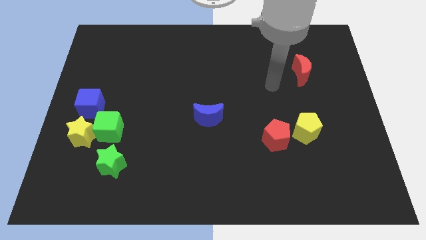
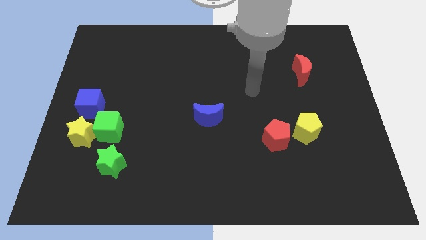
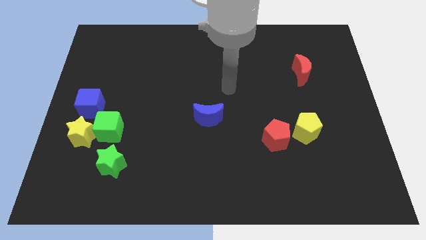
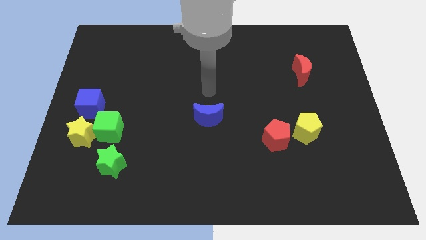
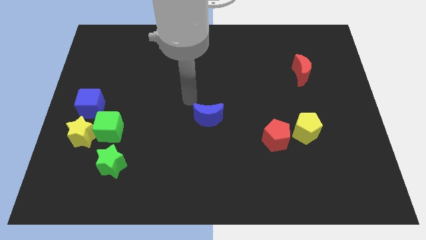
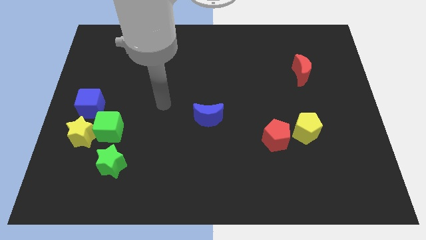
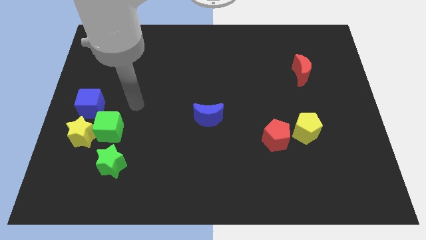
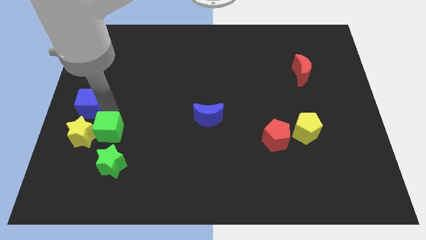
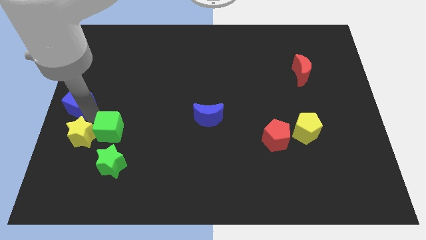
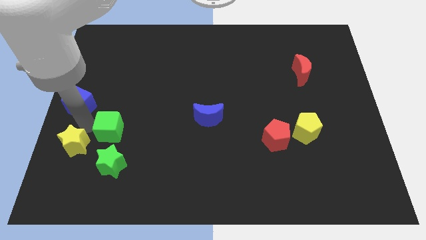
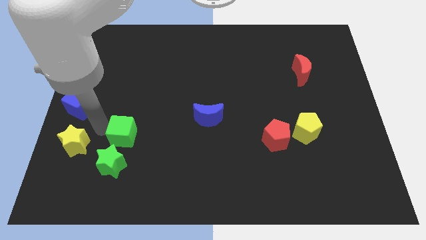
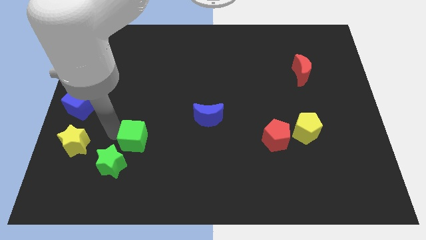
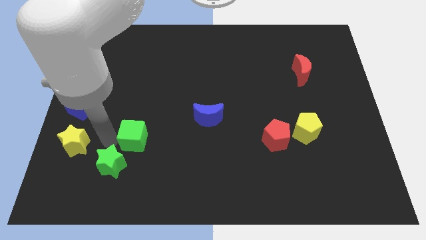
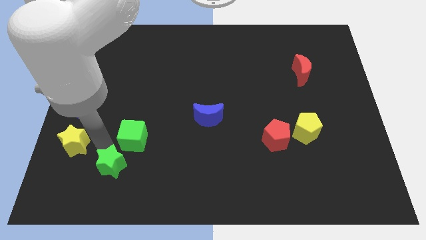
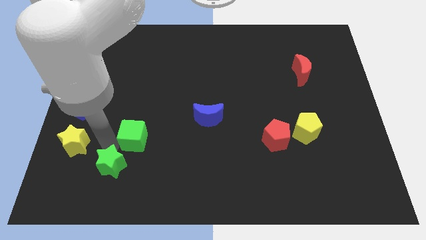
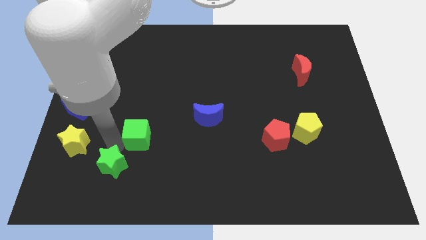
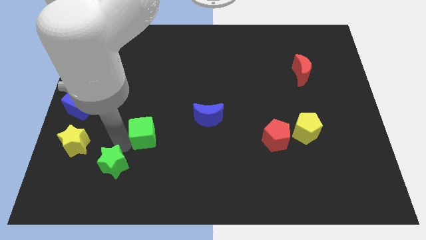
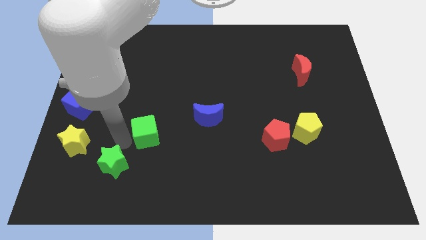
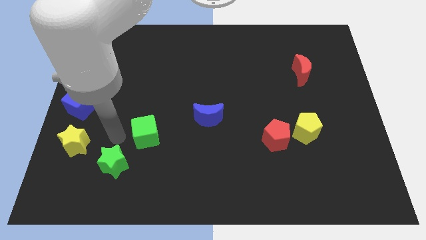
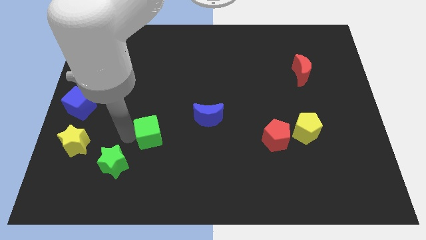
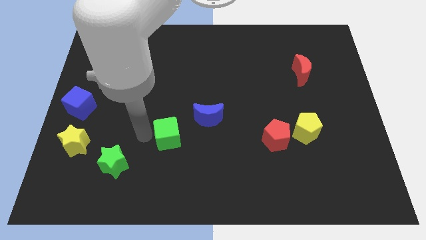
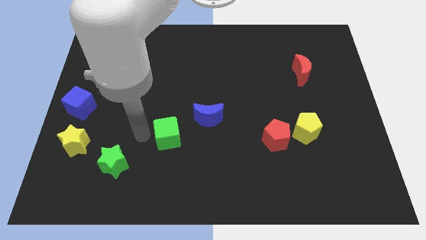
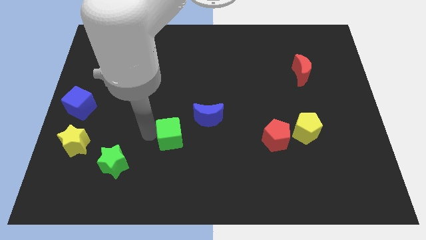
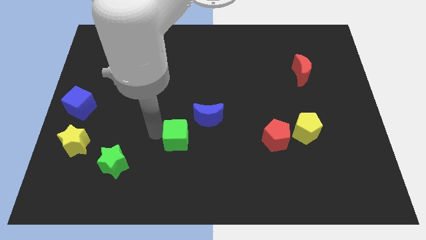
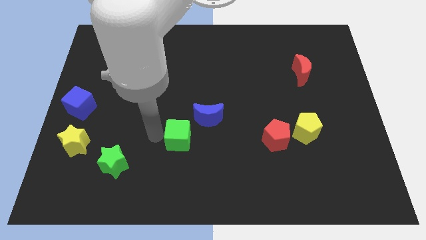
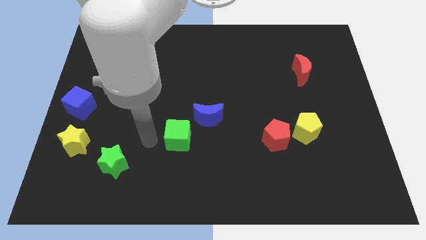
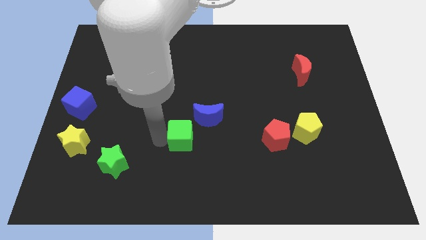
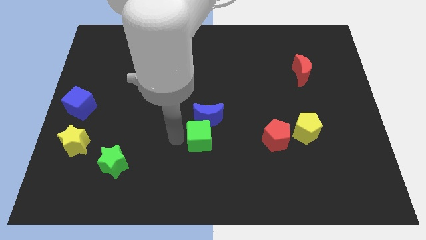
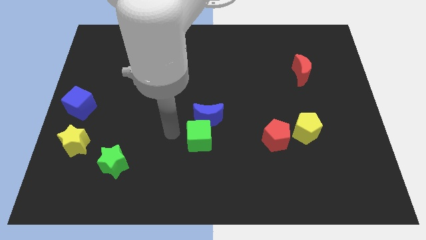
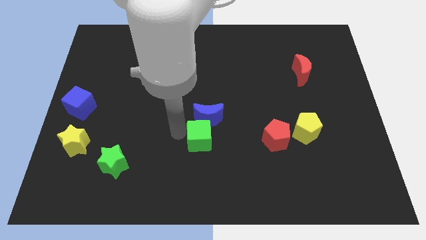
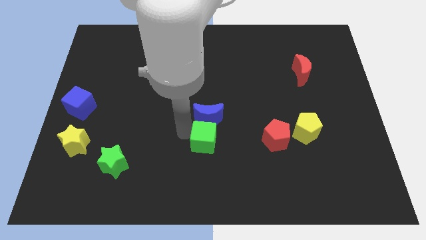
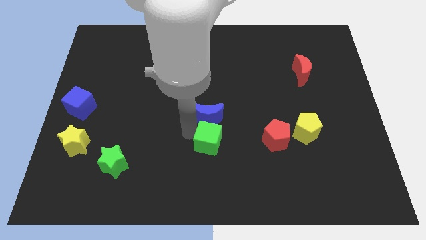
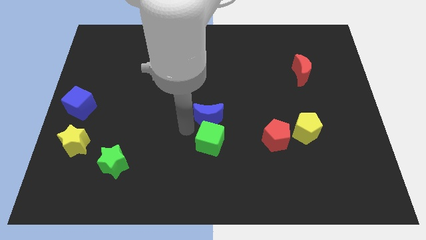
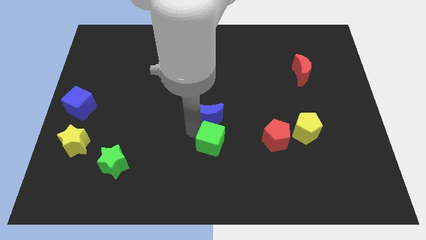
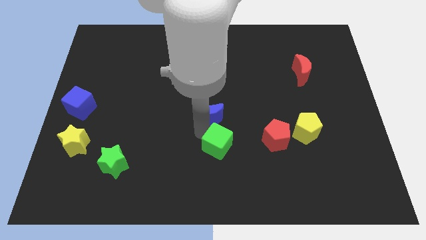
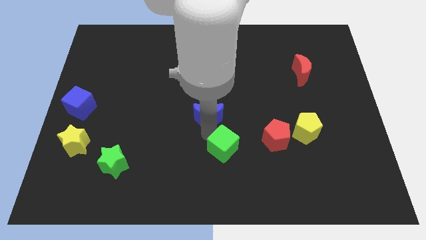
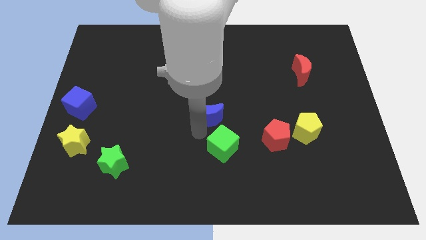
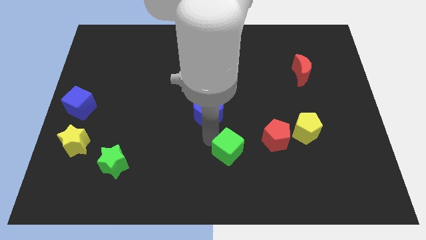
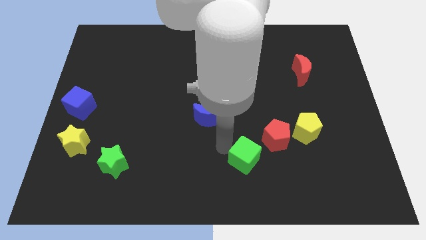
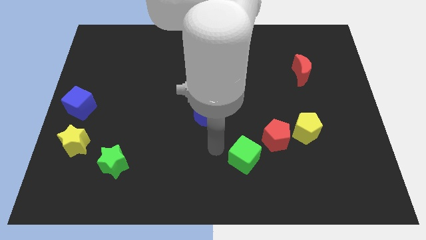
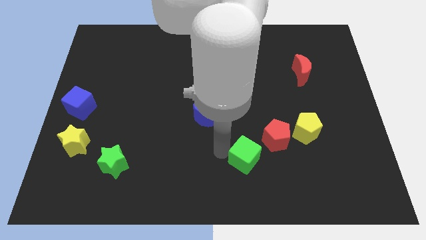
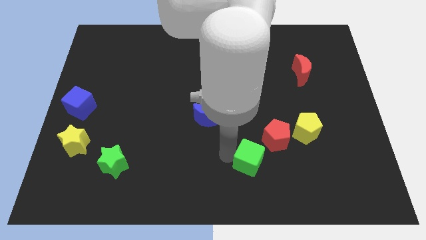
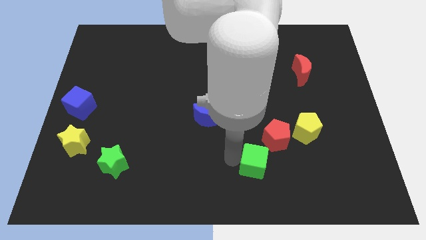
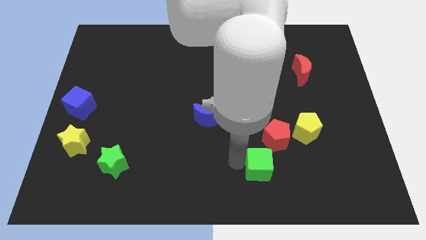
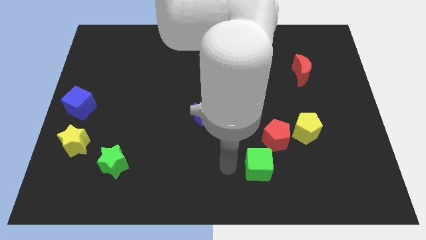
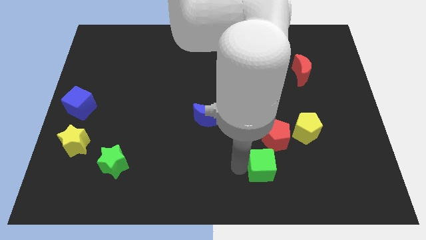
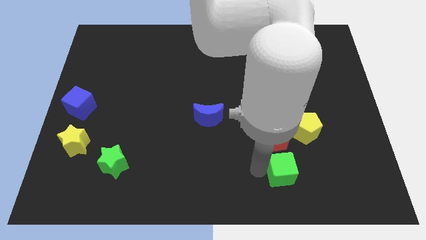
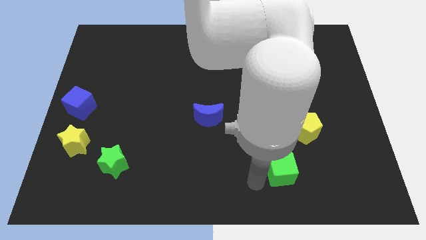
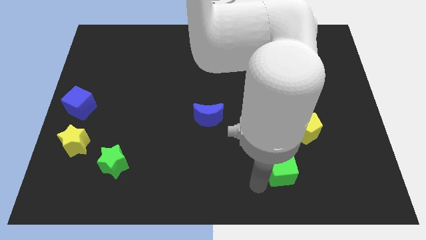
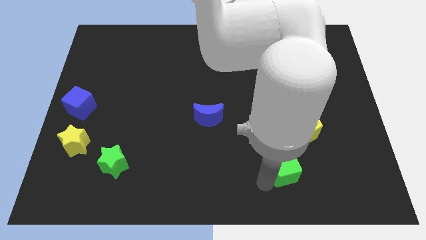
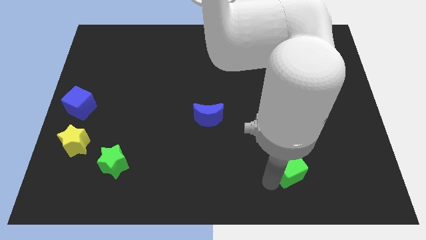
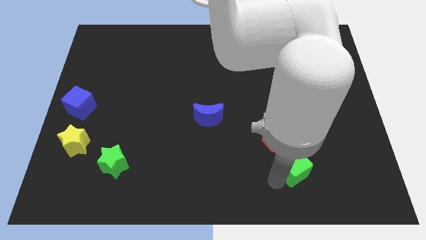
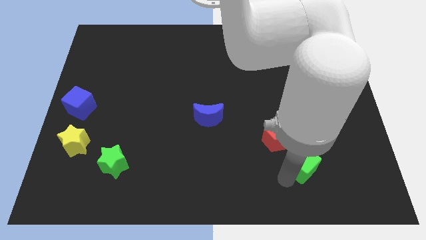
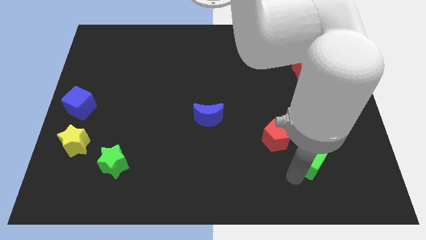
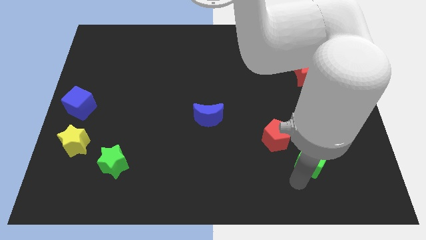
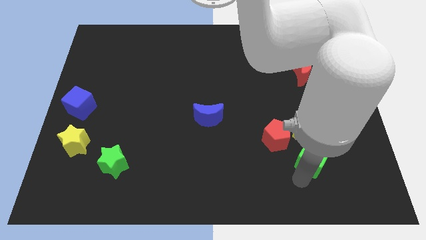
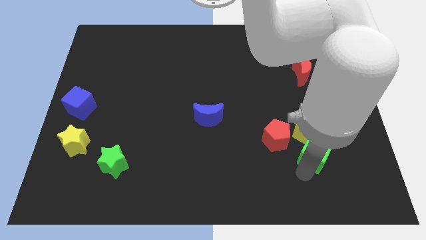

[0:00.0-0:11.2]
move the green cube to the right side of the red pentagon

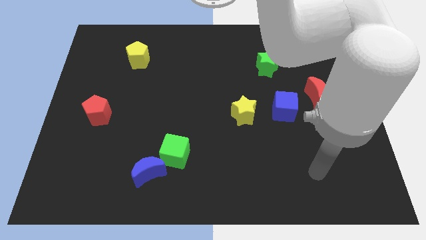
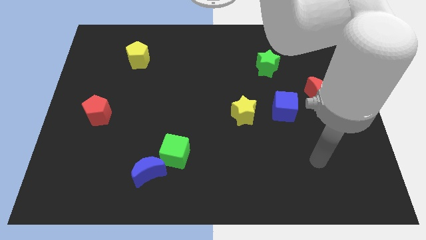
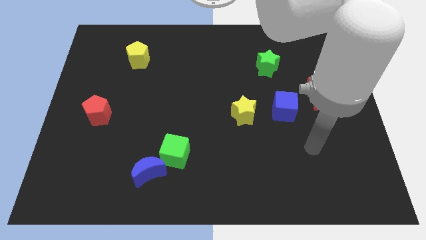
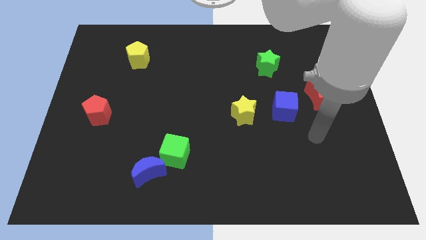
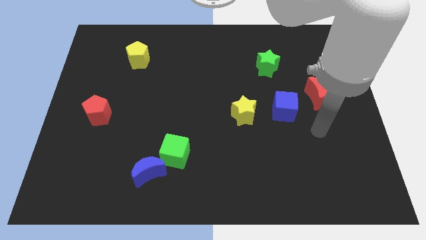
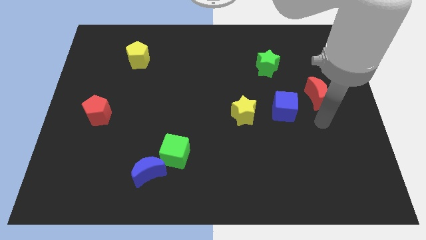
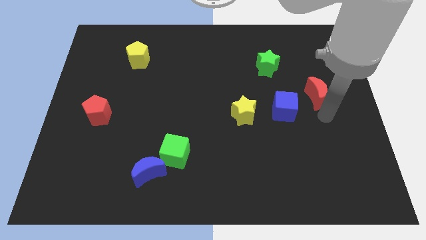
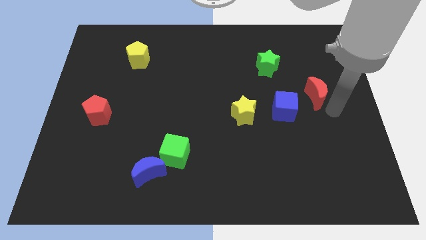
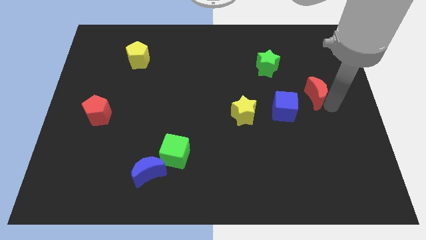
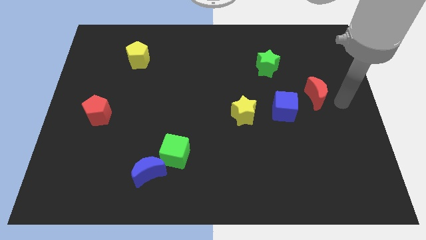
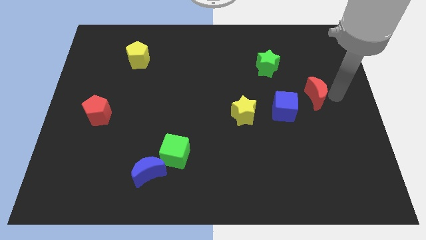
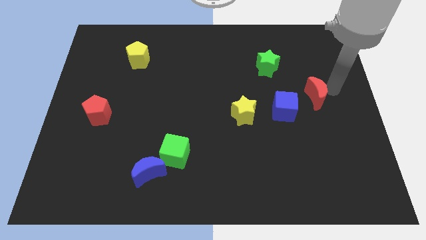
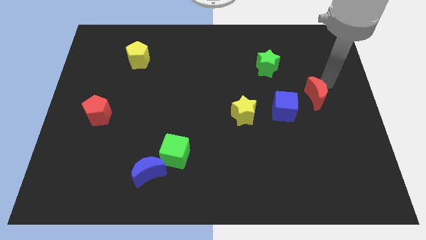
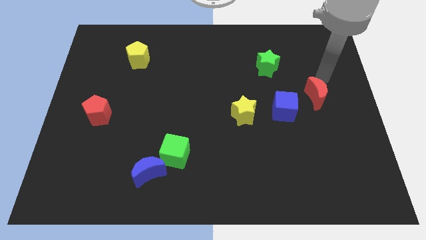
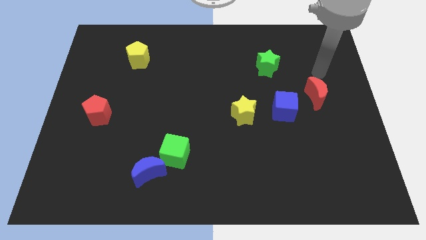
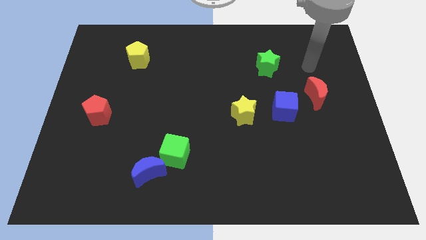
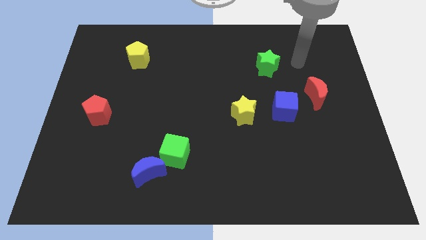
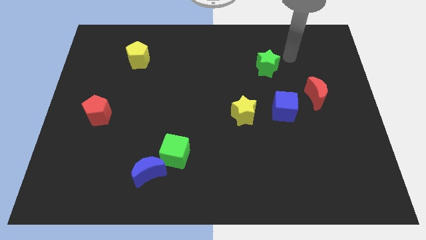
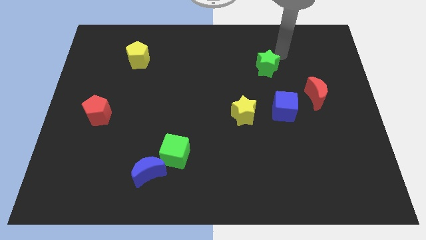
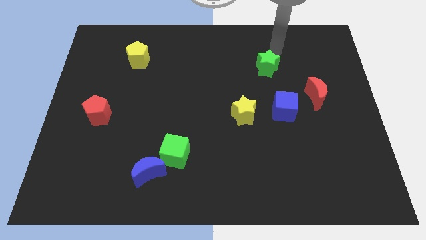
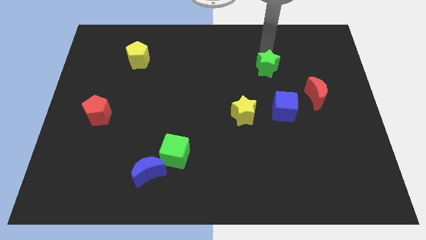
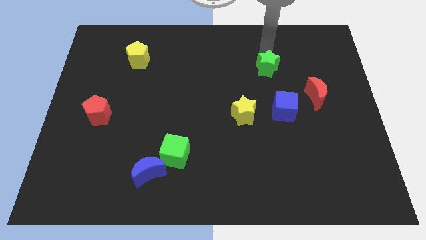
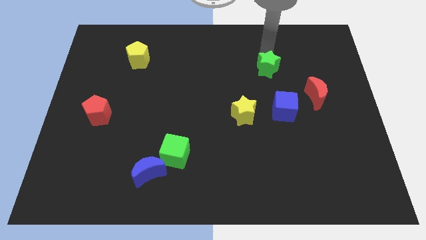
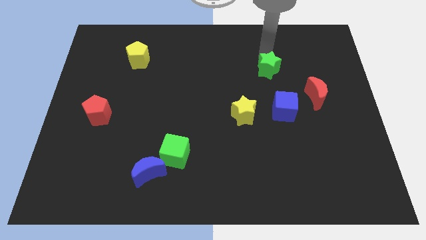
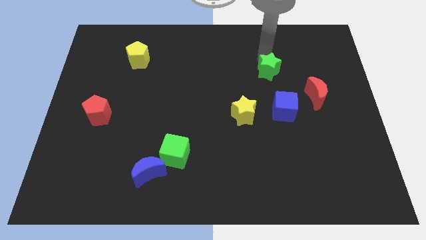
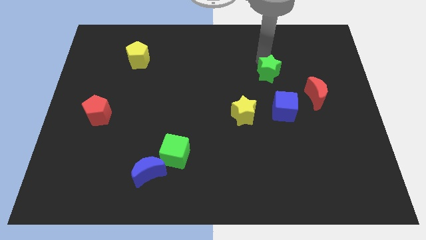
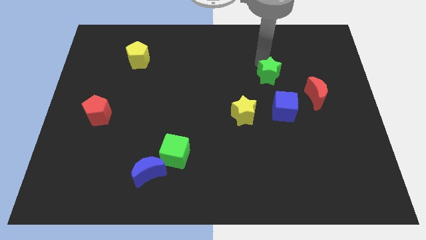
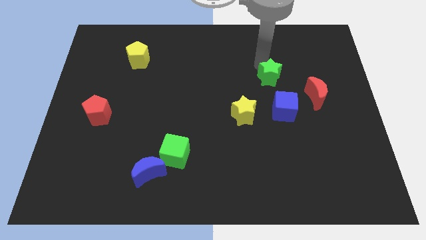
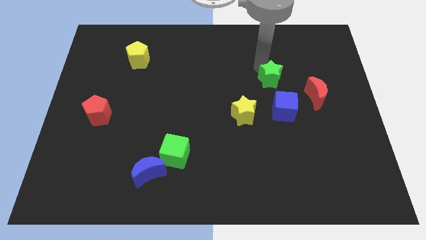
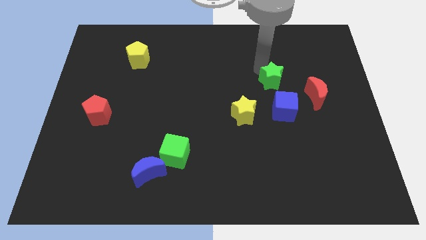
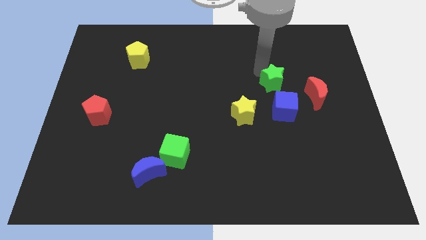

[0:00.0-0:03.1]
slide the green star left of the red moon
